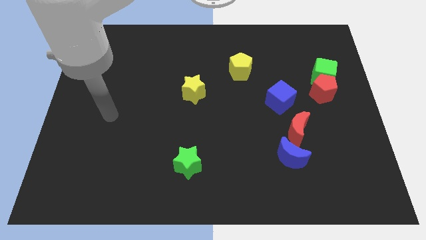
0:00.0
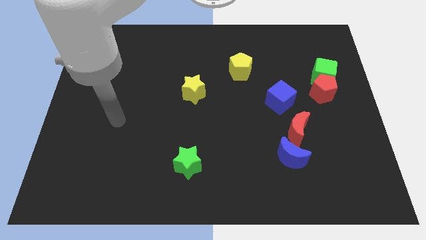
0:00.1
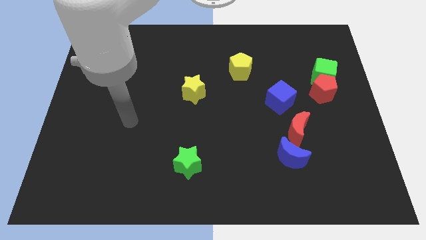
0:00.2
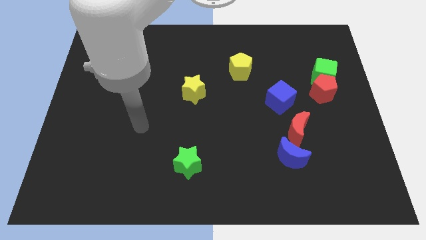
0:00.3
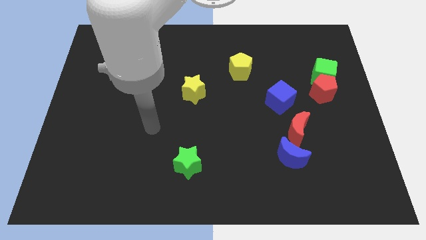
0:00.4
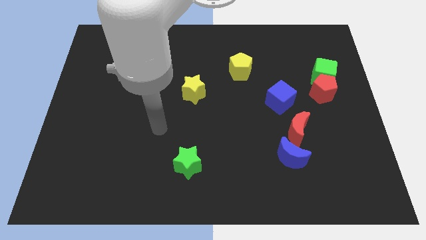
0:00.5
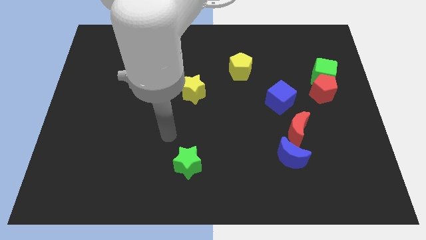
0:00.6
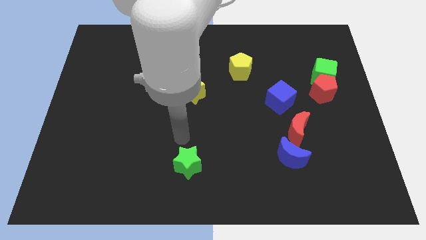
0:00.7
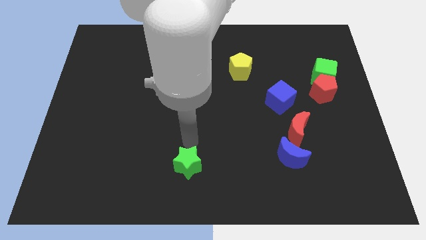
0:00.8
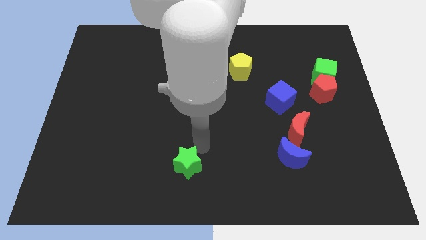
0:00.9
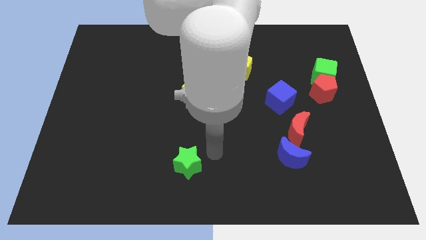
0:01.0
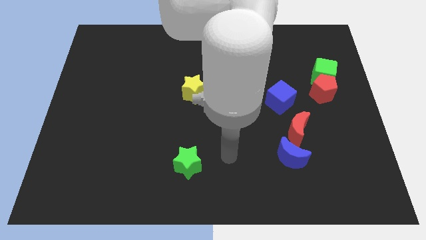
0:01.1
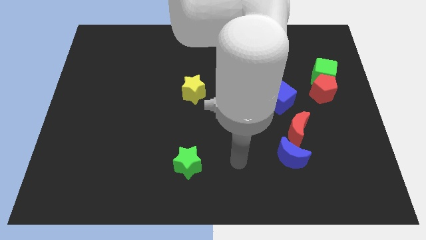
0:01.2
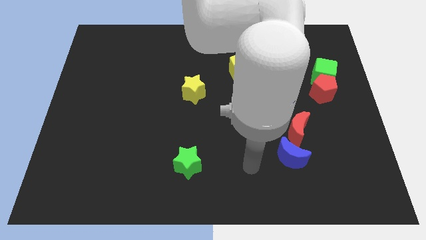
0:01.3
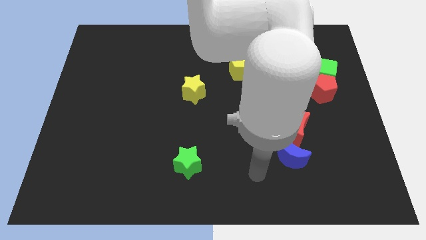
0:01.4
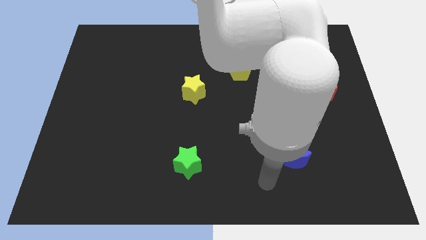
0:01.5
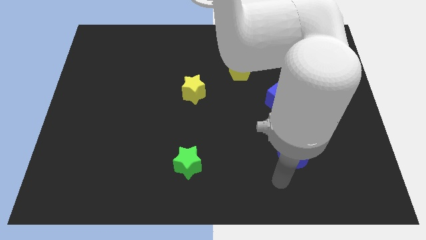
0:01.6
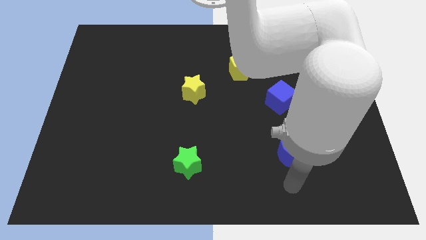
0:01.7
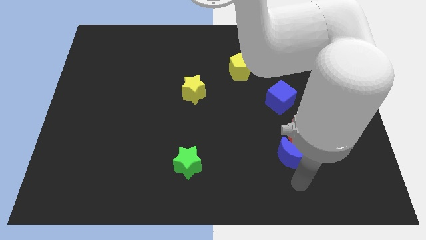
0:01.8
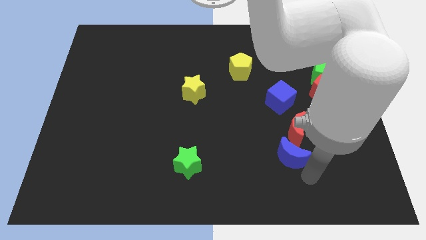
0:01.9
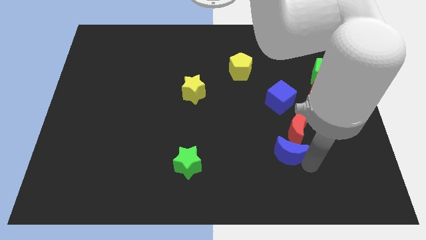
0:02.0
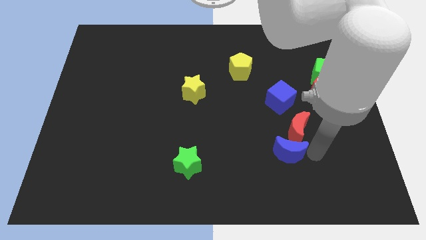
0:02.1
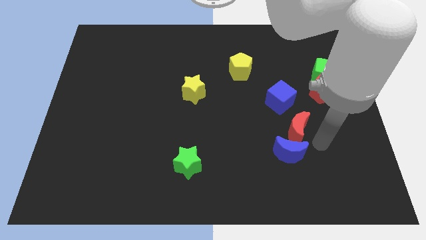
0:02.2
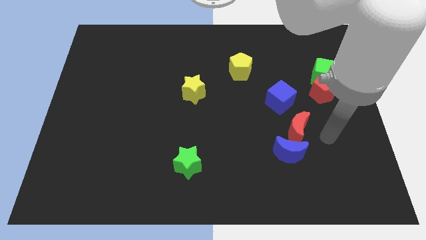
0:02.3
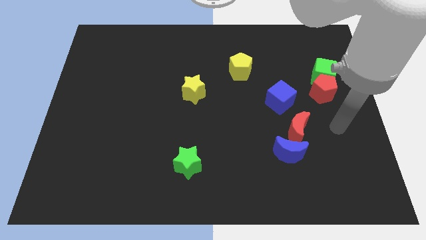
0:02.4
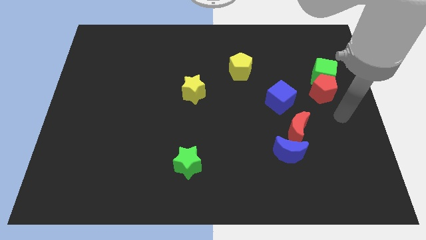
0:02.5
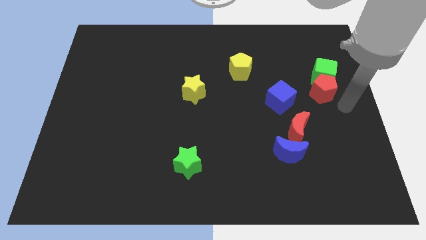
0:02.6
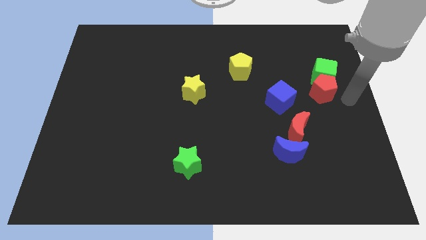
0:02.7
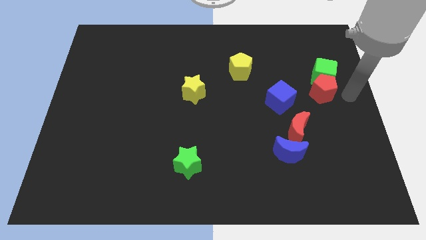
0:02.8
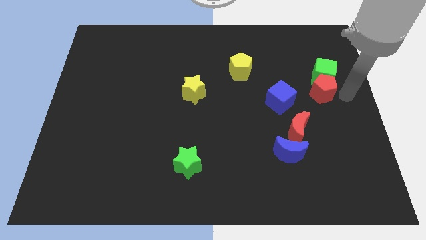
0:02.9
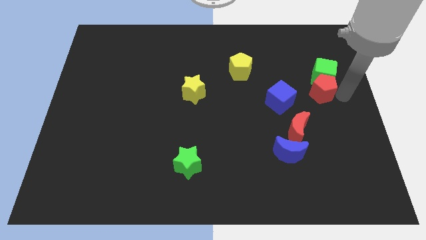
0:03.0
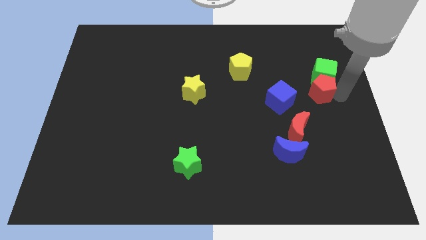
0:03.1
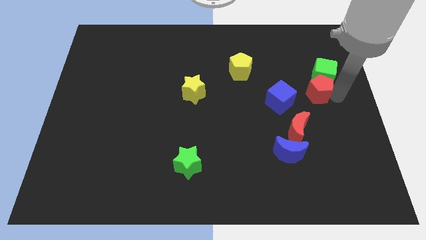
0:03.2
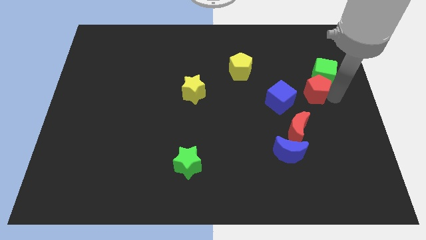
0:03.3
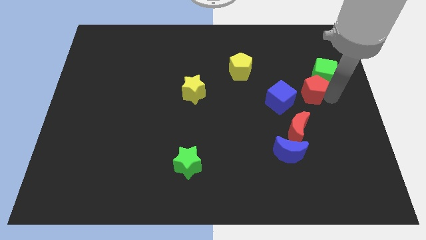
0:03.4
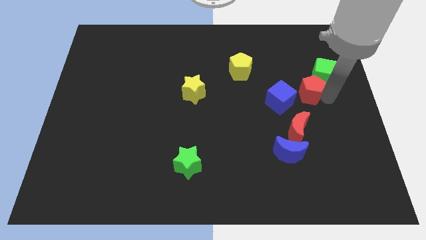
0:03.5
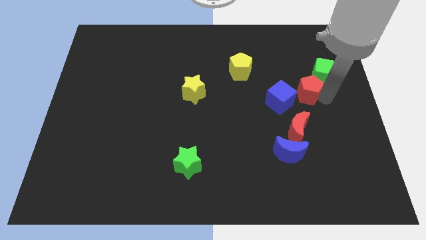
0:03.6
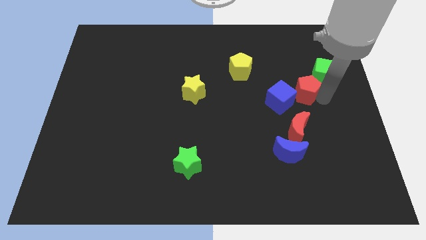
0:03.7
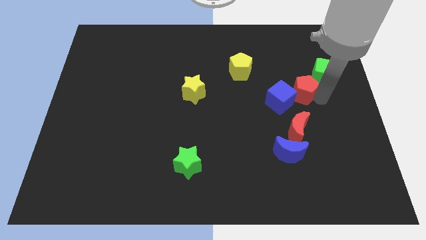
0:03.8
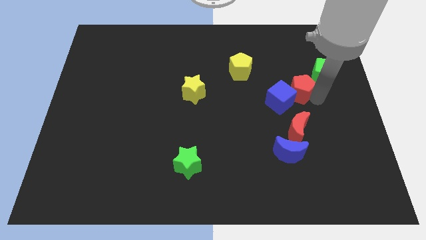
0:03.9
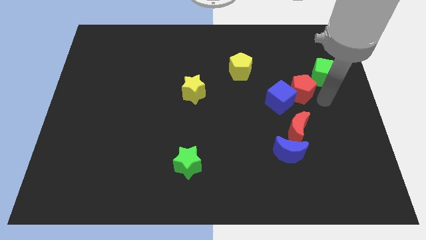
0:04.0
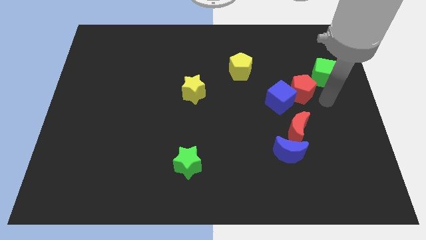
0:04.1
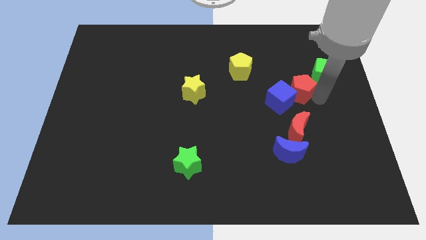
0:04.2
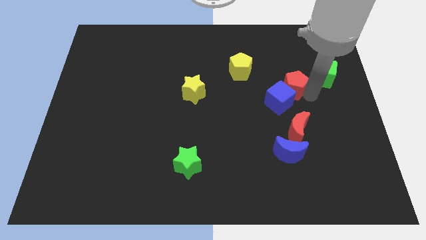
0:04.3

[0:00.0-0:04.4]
move the red pentagon a little to the left

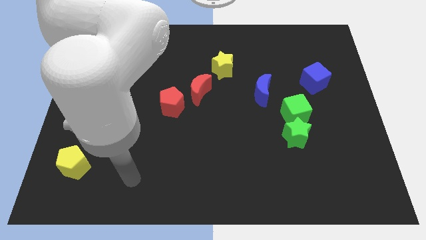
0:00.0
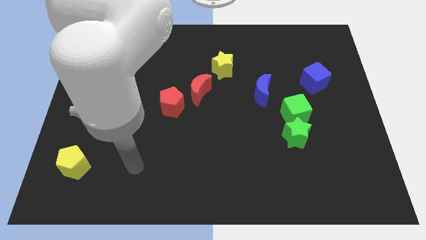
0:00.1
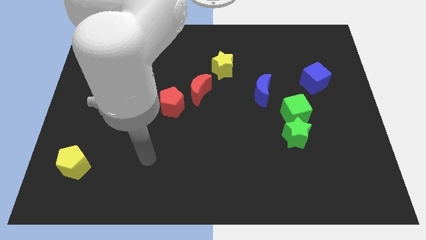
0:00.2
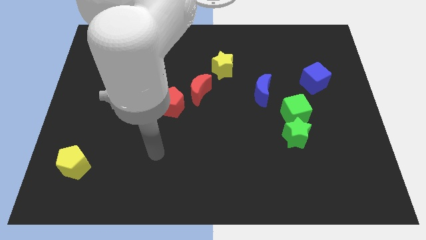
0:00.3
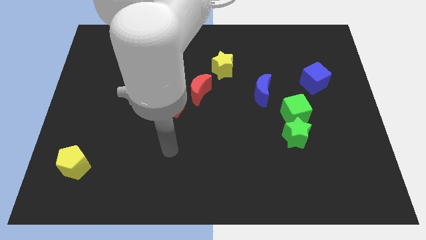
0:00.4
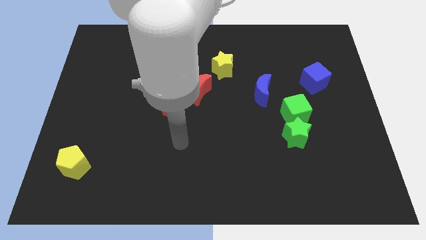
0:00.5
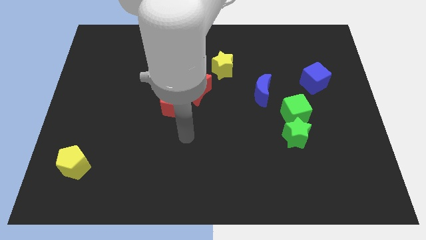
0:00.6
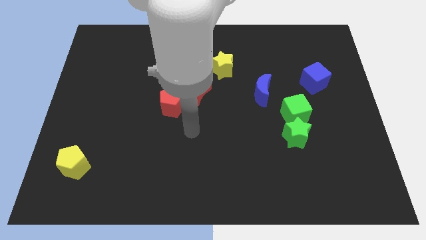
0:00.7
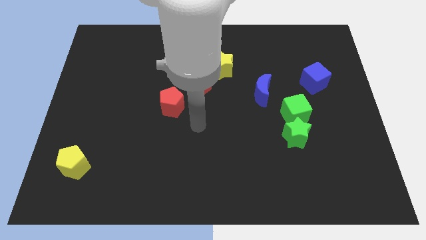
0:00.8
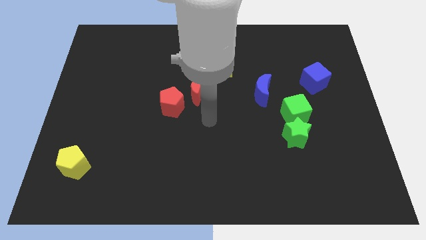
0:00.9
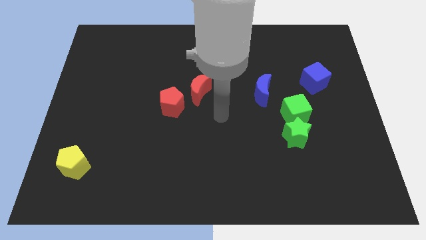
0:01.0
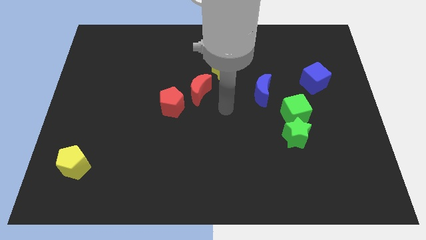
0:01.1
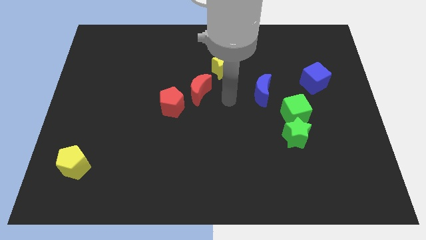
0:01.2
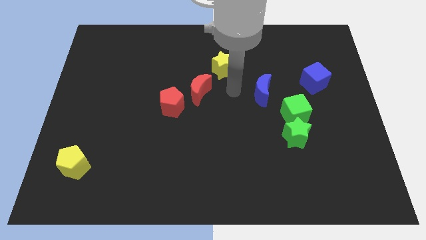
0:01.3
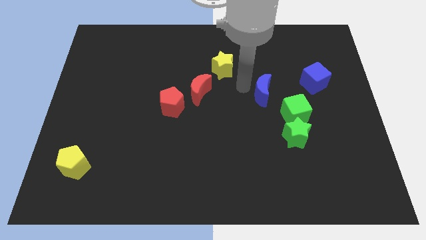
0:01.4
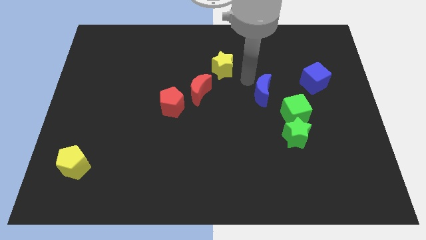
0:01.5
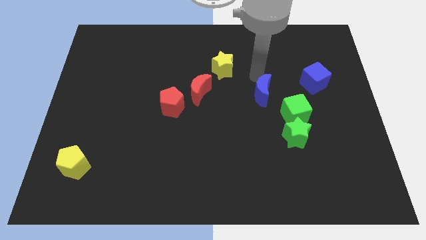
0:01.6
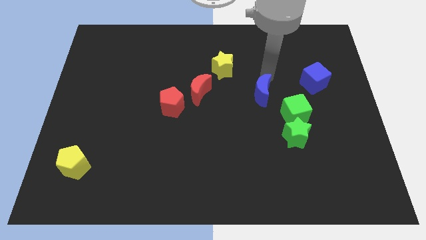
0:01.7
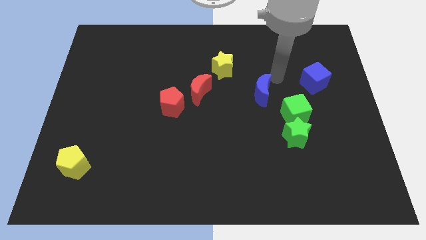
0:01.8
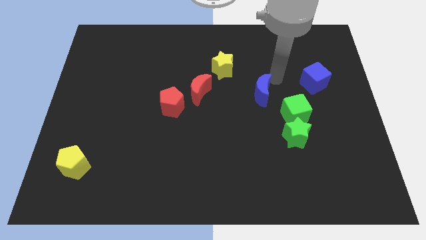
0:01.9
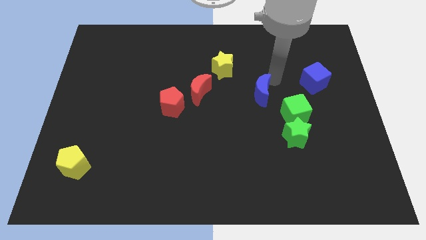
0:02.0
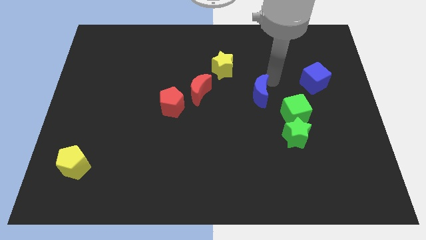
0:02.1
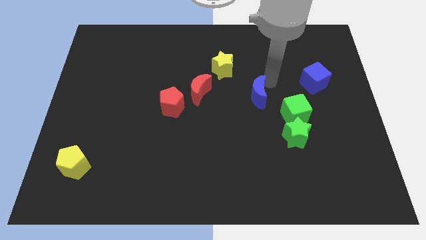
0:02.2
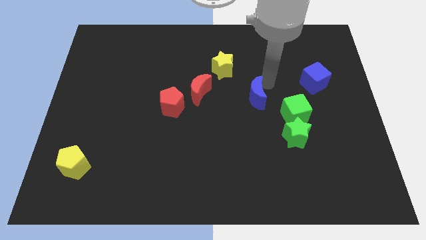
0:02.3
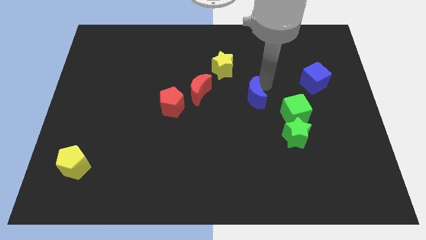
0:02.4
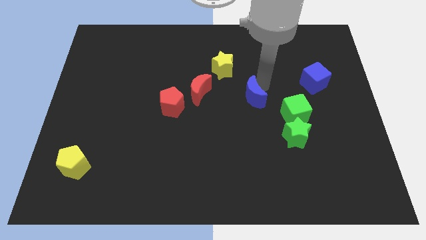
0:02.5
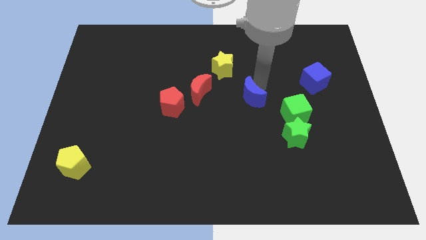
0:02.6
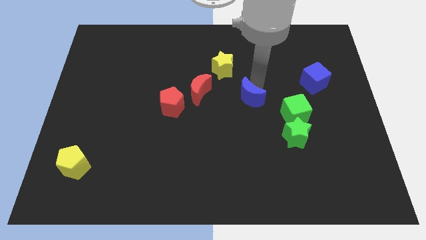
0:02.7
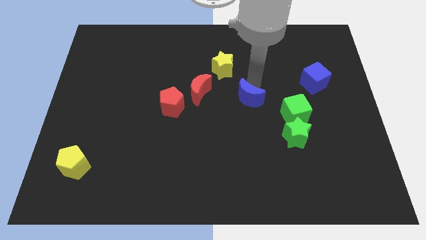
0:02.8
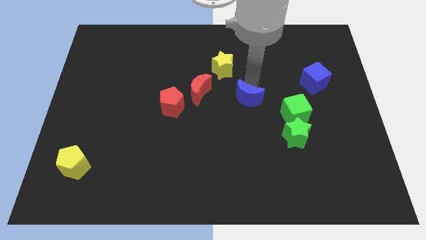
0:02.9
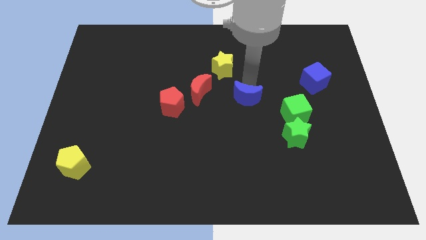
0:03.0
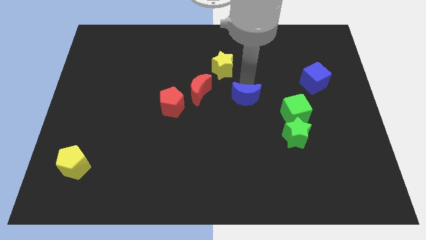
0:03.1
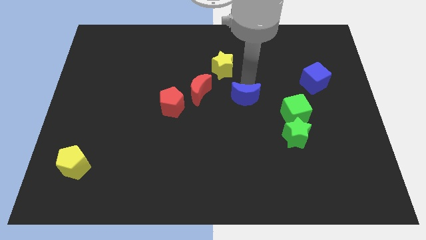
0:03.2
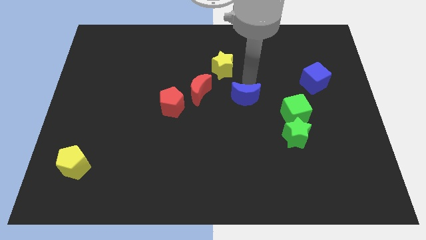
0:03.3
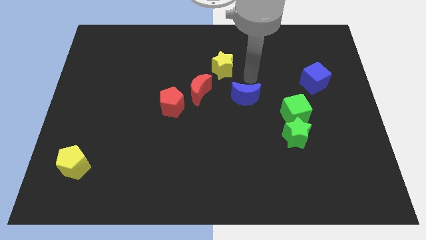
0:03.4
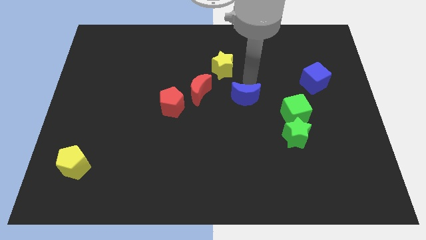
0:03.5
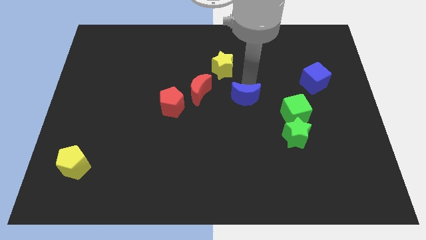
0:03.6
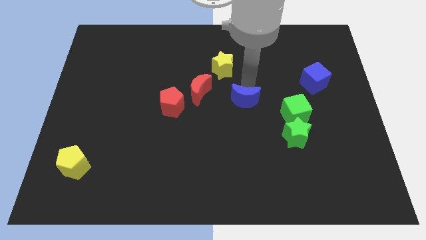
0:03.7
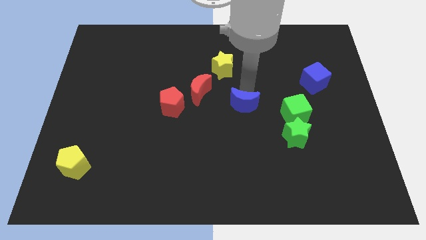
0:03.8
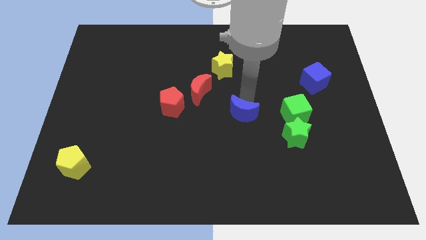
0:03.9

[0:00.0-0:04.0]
move the blue moon down and left diagonally somewhat
